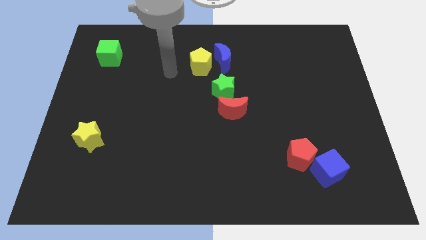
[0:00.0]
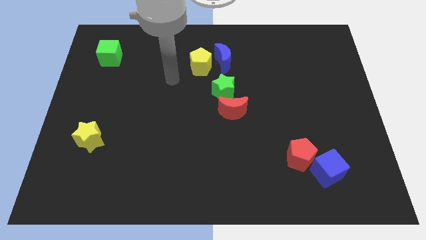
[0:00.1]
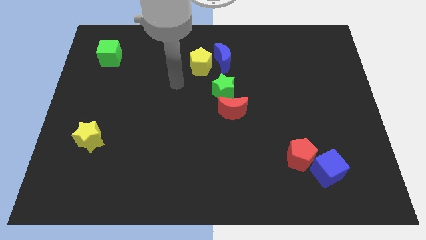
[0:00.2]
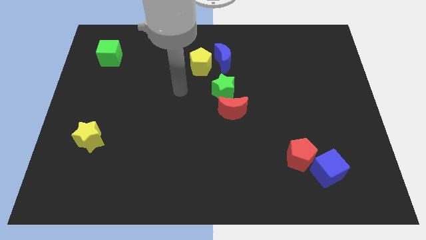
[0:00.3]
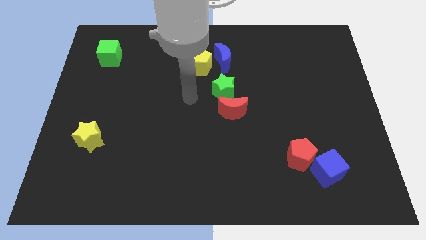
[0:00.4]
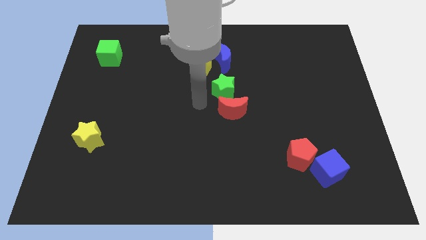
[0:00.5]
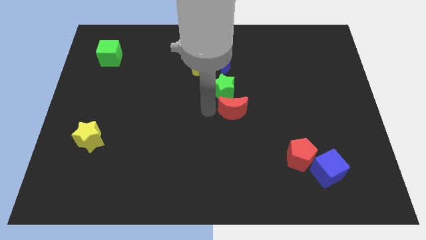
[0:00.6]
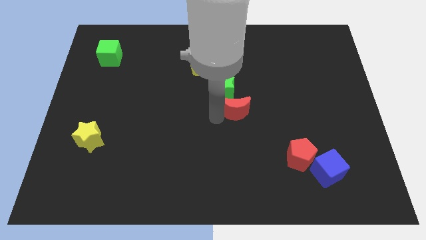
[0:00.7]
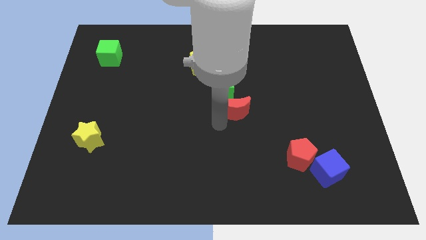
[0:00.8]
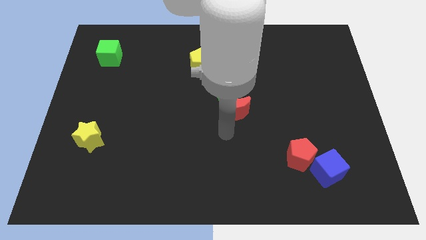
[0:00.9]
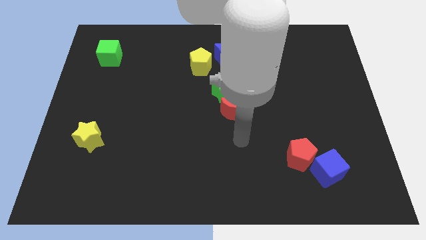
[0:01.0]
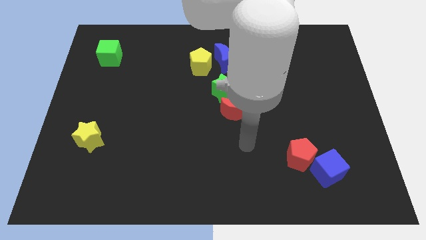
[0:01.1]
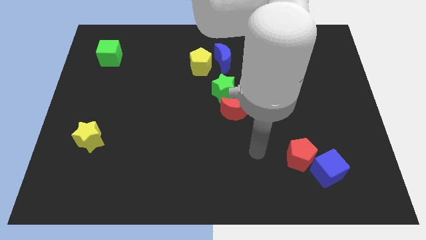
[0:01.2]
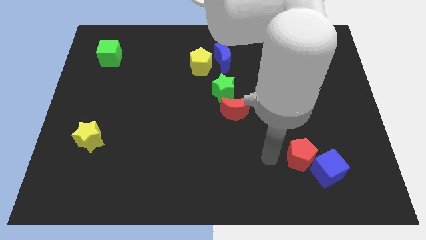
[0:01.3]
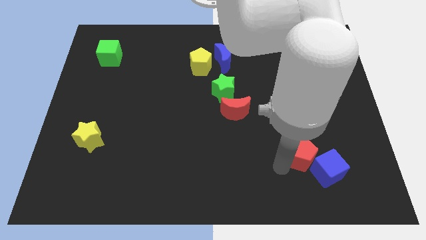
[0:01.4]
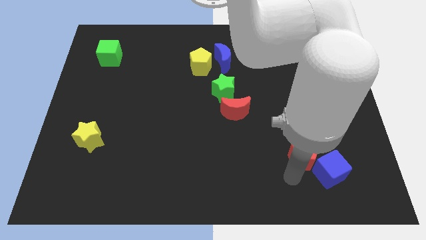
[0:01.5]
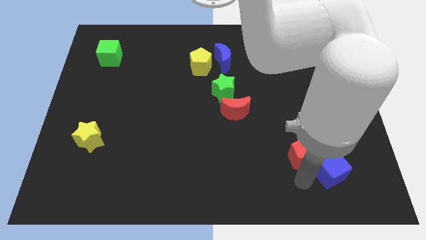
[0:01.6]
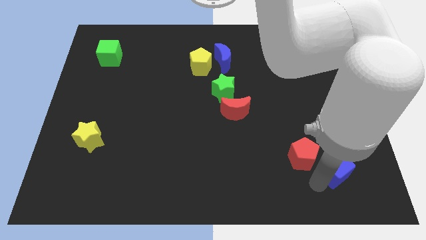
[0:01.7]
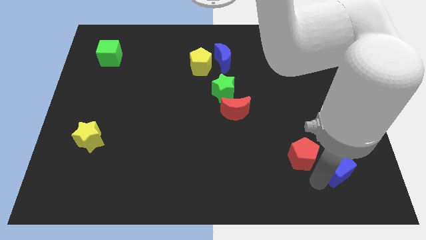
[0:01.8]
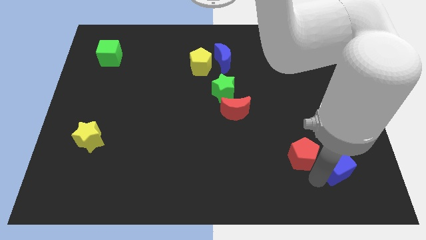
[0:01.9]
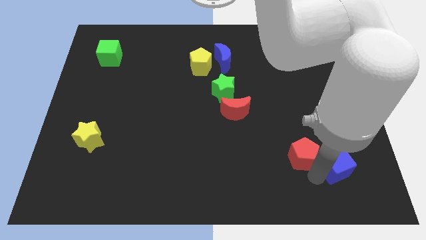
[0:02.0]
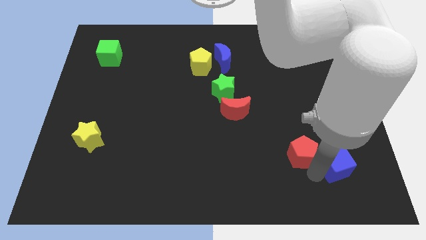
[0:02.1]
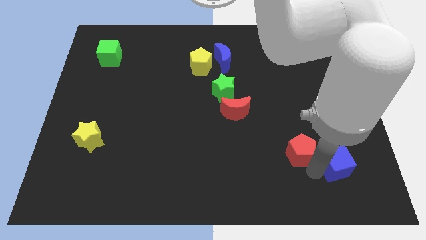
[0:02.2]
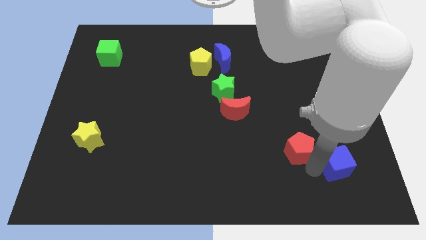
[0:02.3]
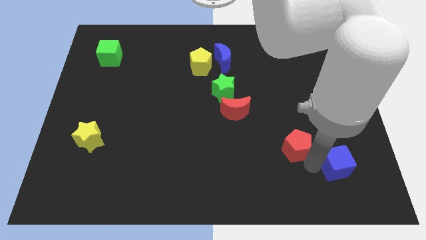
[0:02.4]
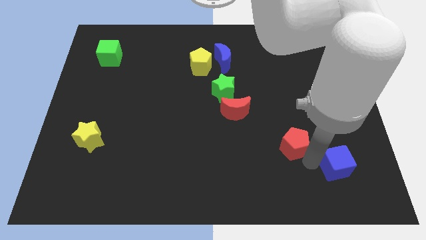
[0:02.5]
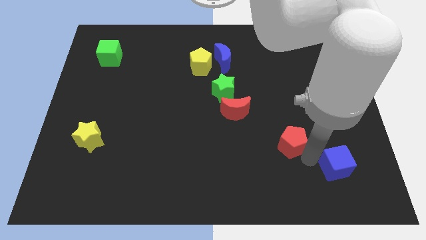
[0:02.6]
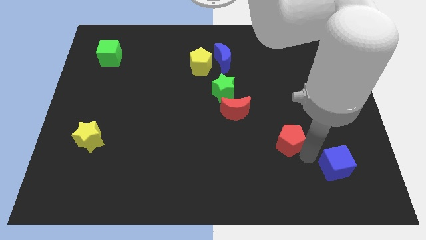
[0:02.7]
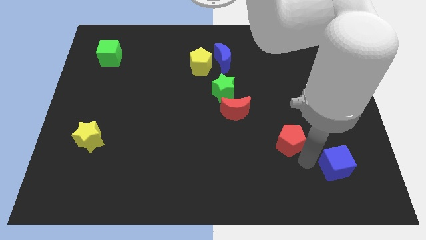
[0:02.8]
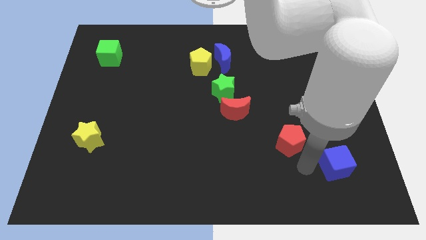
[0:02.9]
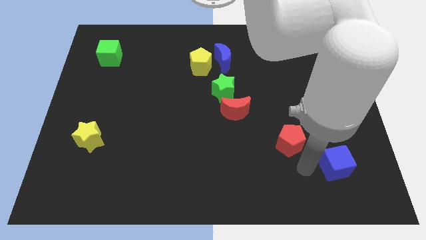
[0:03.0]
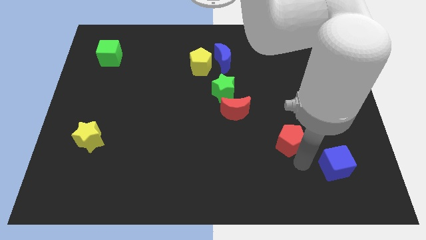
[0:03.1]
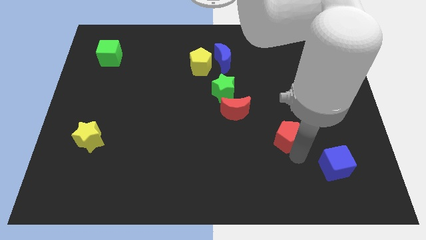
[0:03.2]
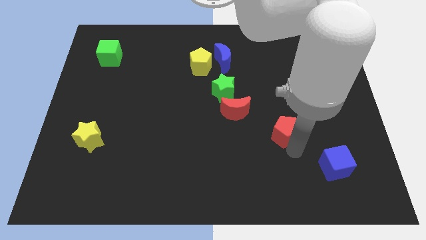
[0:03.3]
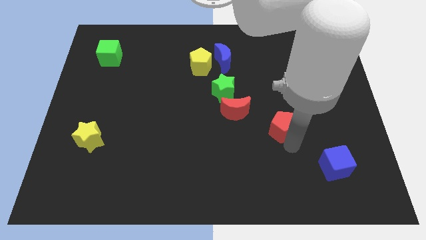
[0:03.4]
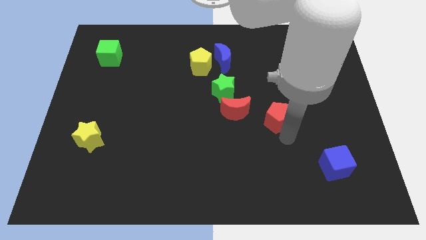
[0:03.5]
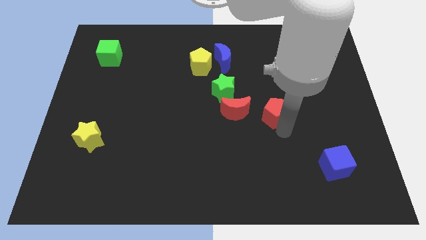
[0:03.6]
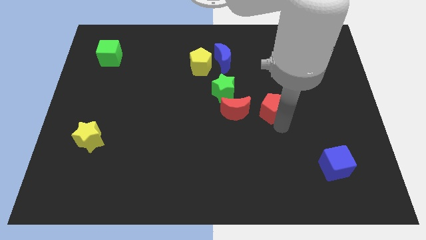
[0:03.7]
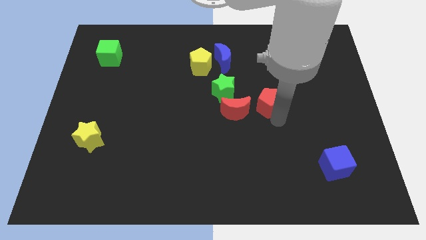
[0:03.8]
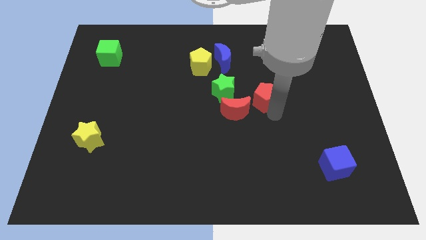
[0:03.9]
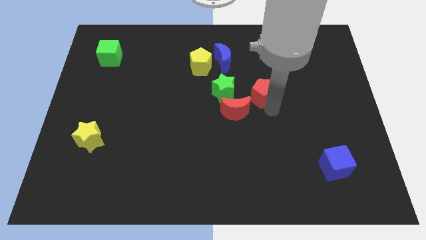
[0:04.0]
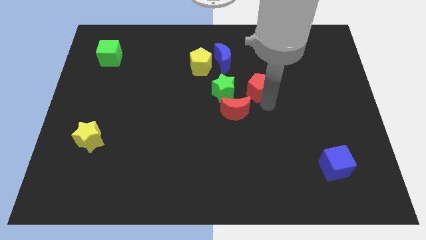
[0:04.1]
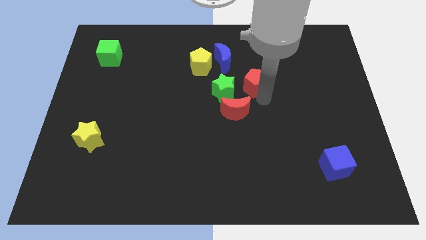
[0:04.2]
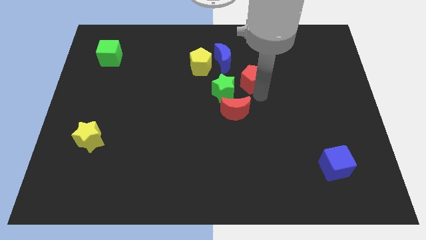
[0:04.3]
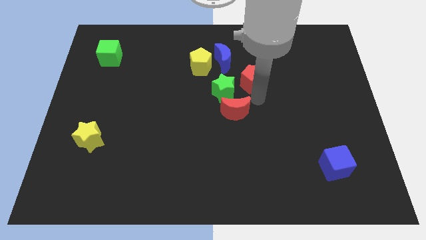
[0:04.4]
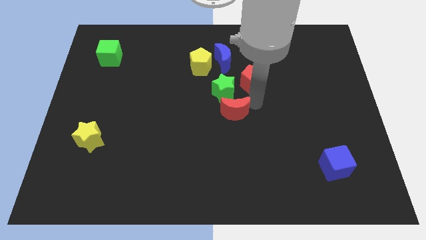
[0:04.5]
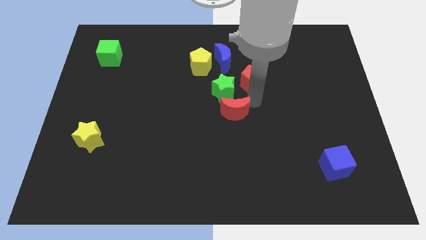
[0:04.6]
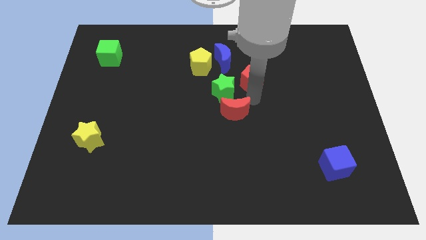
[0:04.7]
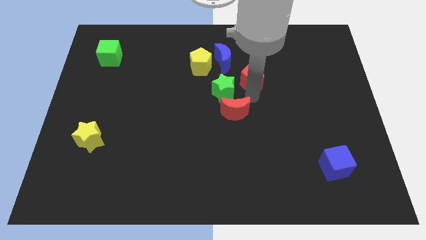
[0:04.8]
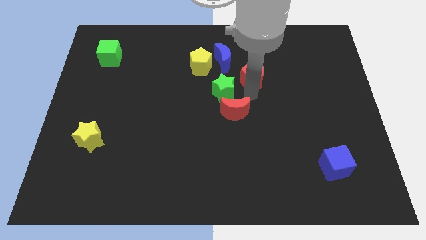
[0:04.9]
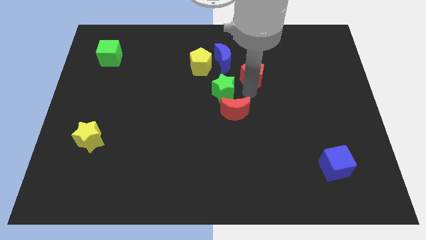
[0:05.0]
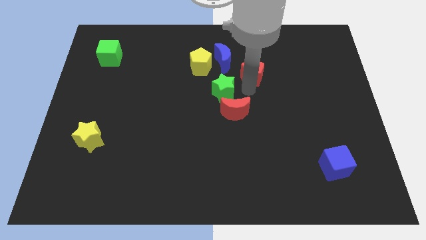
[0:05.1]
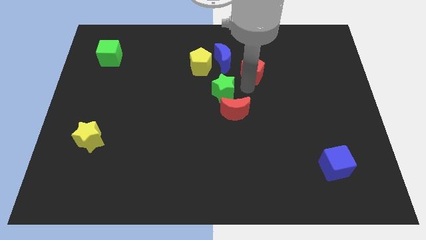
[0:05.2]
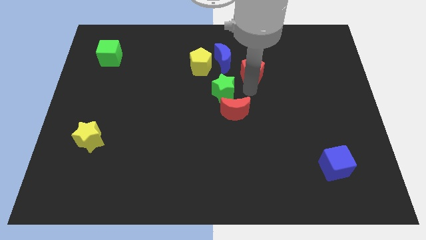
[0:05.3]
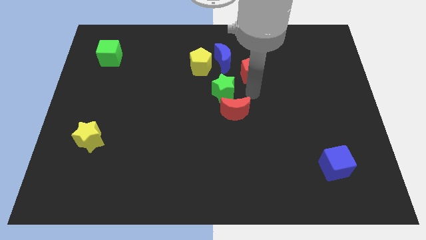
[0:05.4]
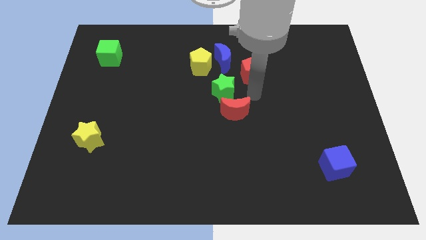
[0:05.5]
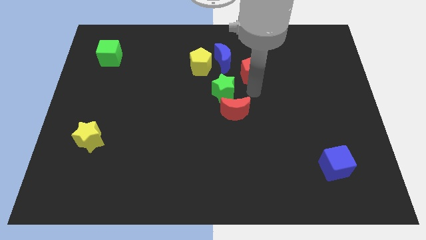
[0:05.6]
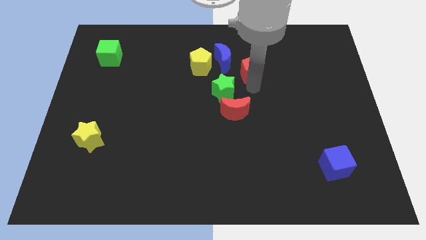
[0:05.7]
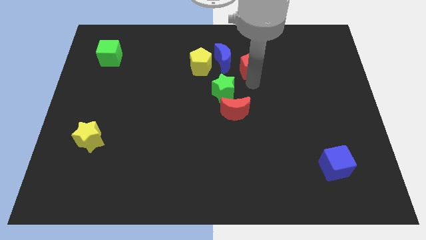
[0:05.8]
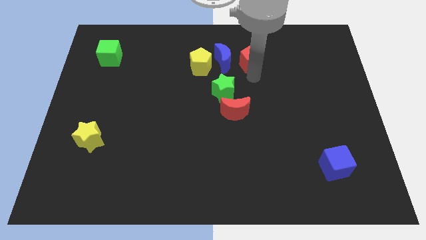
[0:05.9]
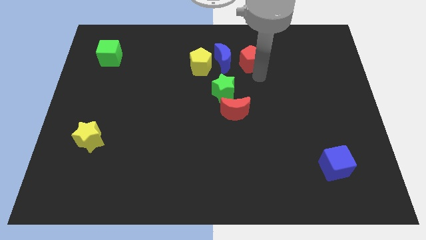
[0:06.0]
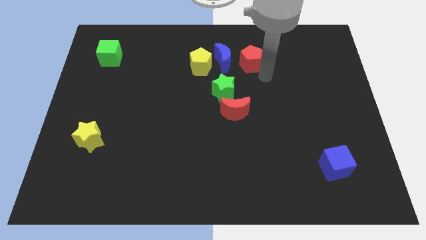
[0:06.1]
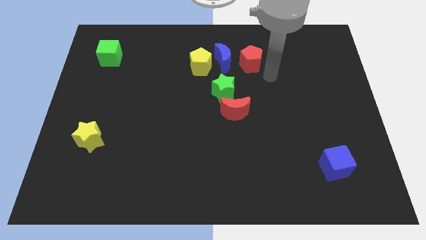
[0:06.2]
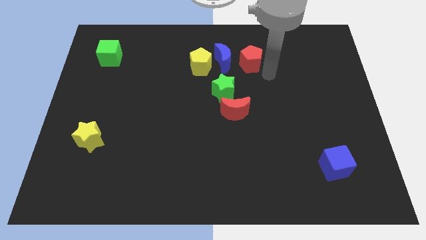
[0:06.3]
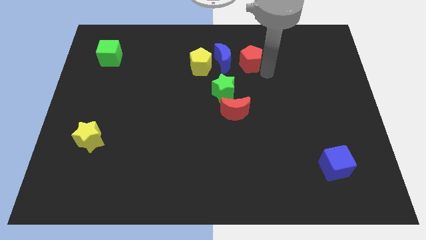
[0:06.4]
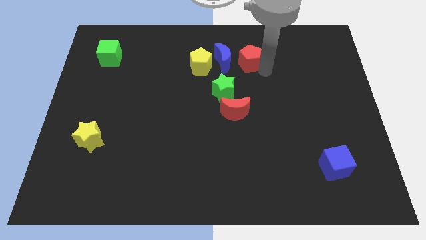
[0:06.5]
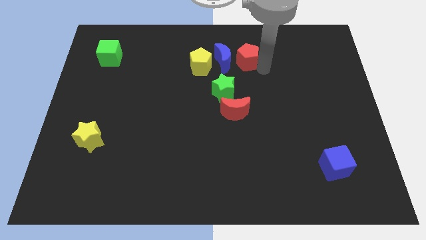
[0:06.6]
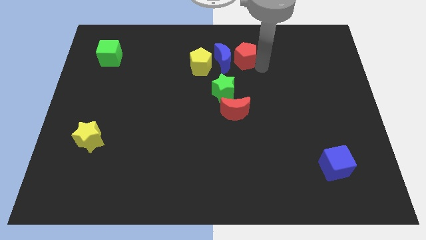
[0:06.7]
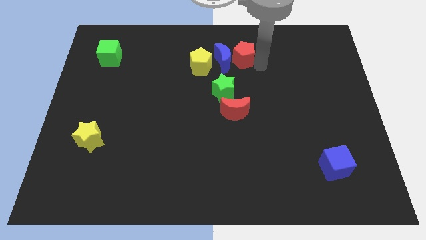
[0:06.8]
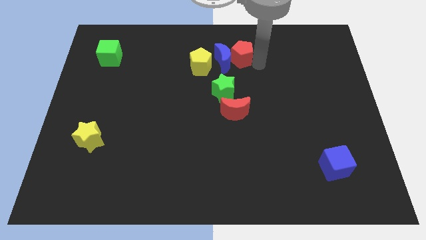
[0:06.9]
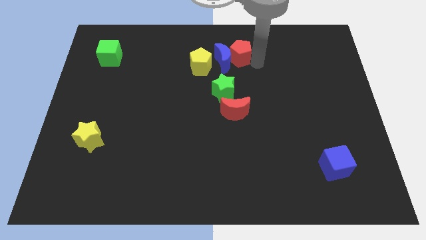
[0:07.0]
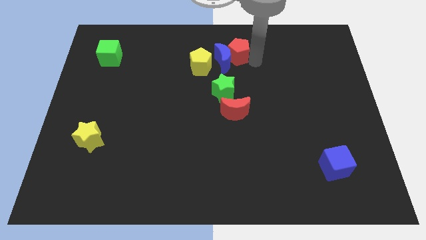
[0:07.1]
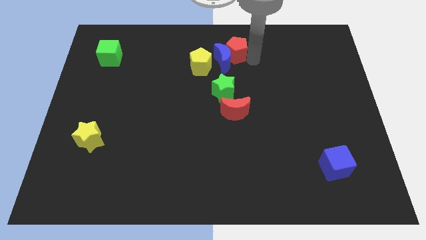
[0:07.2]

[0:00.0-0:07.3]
put the red pentagon to the towards your base
